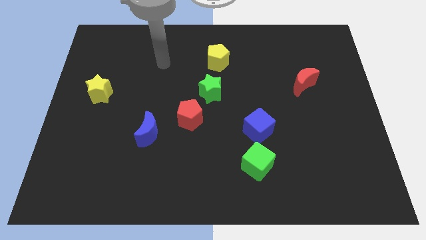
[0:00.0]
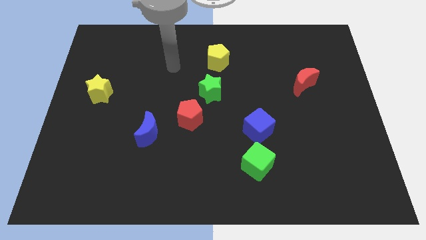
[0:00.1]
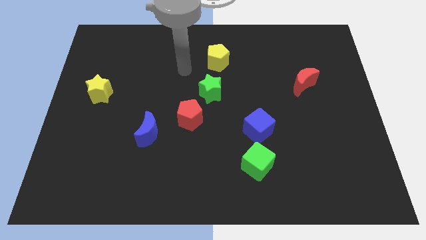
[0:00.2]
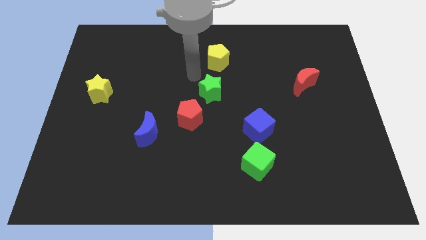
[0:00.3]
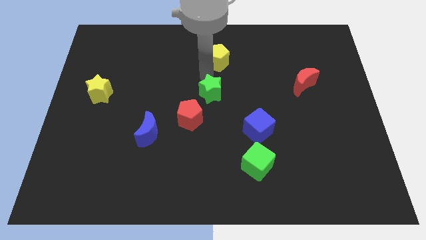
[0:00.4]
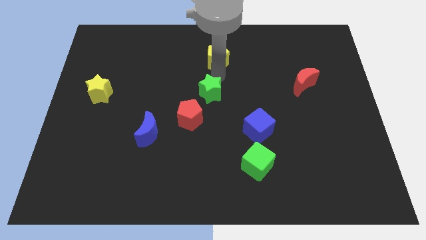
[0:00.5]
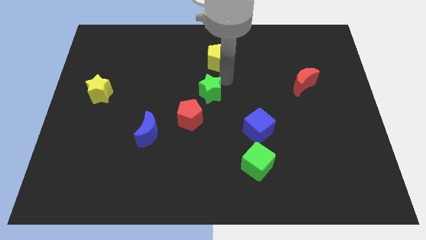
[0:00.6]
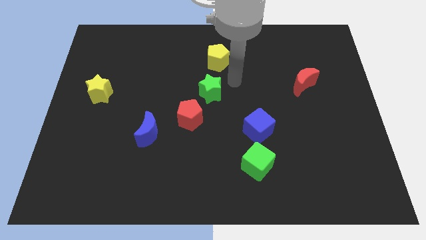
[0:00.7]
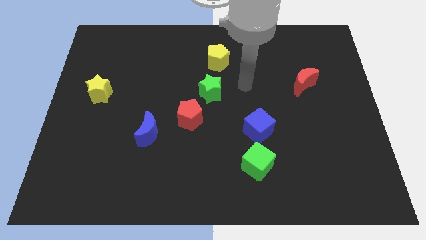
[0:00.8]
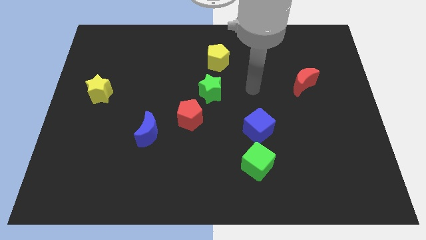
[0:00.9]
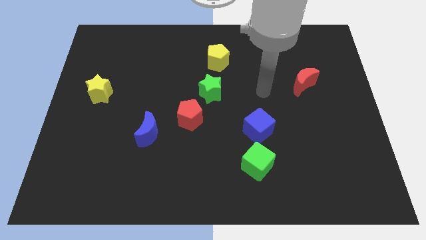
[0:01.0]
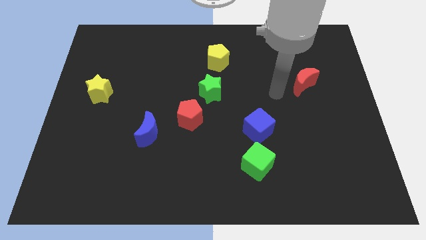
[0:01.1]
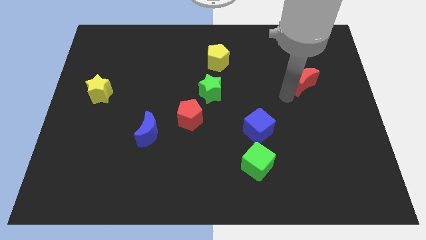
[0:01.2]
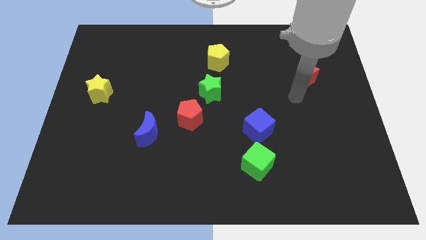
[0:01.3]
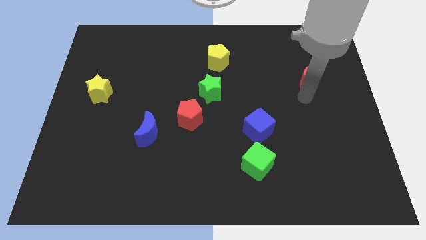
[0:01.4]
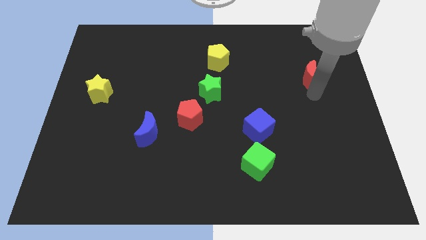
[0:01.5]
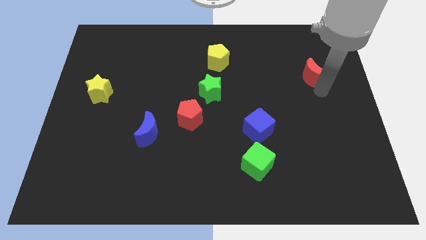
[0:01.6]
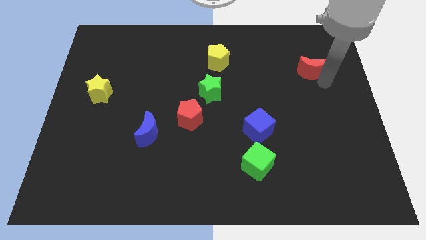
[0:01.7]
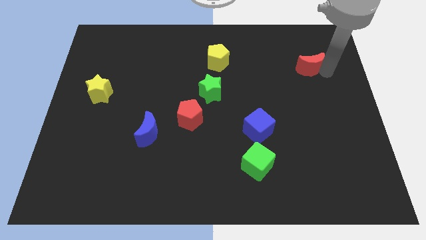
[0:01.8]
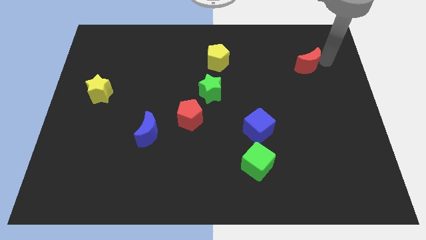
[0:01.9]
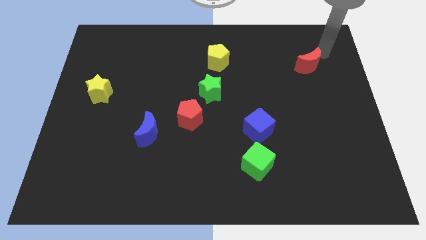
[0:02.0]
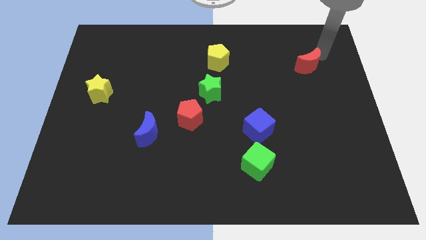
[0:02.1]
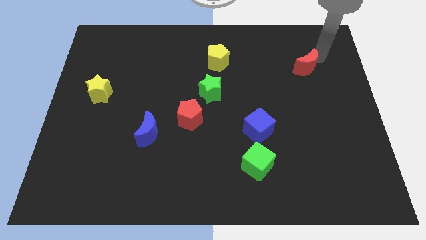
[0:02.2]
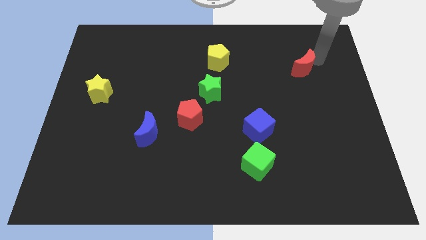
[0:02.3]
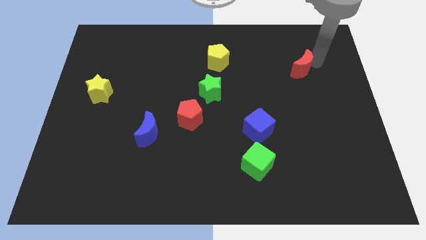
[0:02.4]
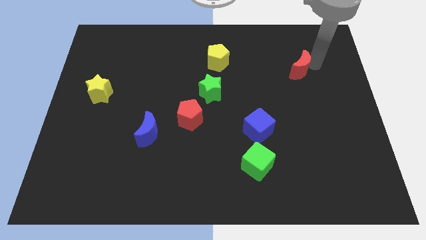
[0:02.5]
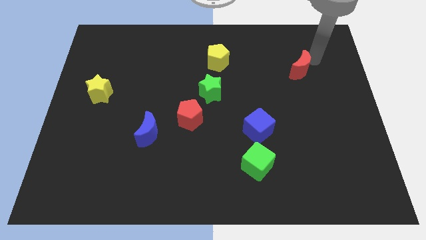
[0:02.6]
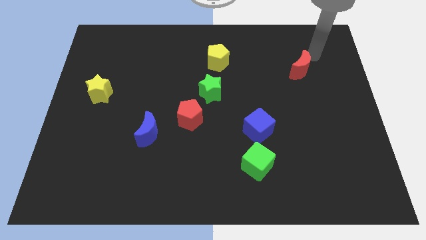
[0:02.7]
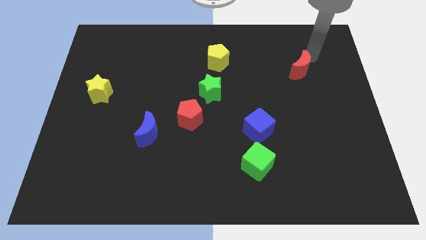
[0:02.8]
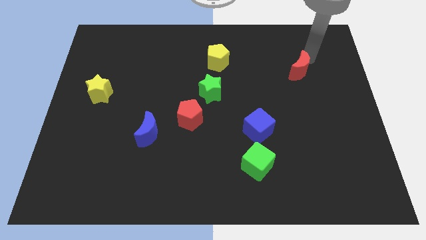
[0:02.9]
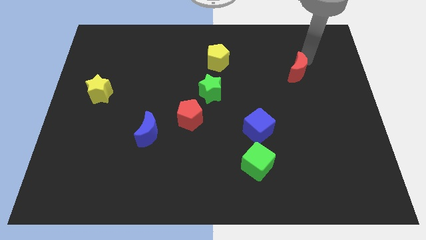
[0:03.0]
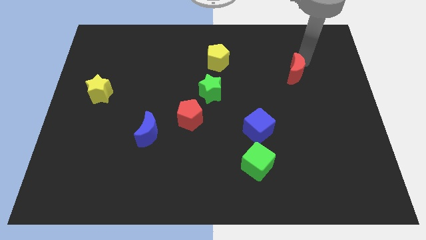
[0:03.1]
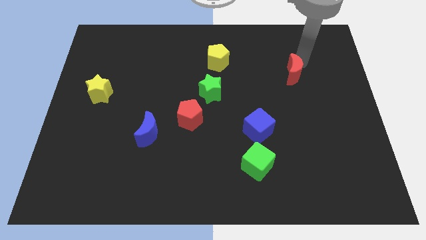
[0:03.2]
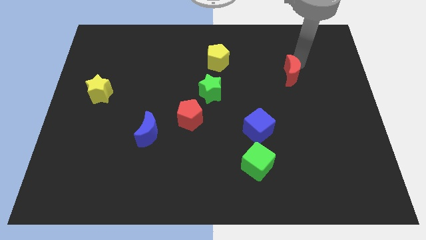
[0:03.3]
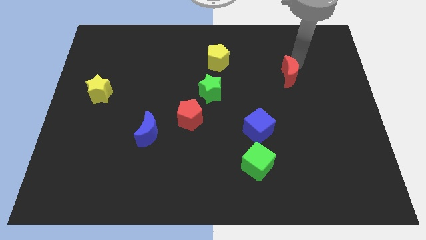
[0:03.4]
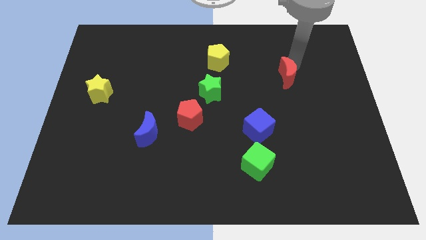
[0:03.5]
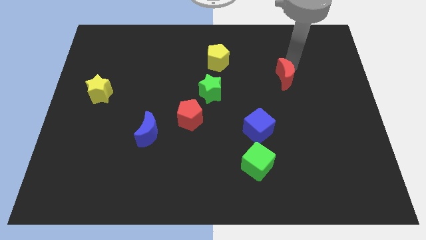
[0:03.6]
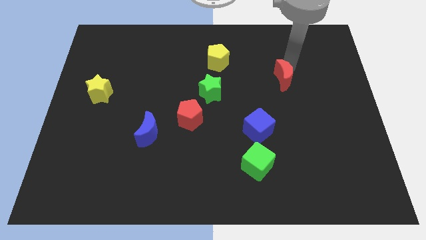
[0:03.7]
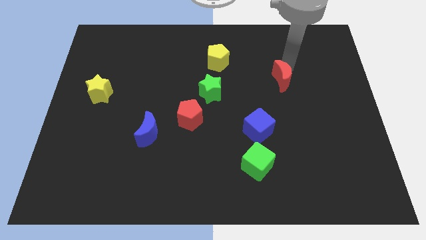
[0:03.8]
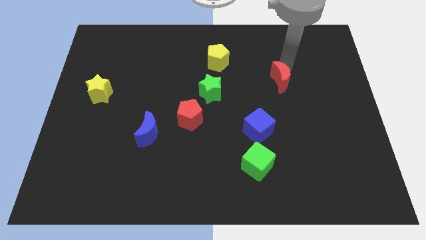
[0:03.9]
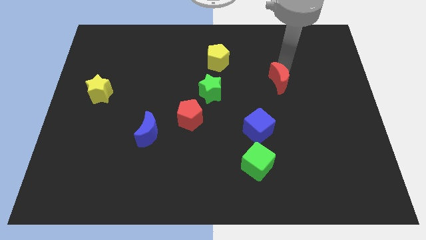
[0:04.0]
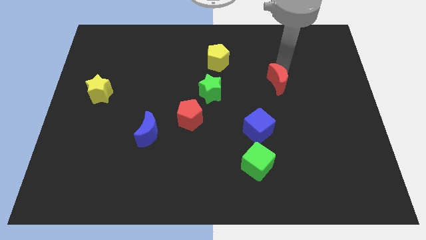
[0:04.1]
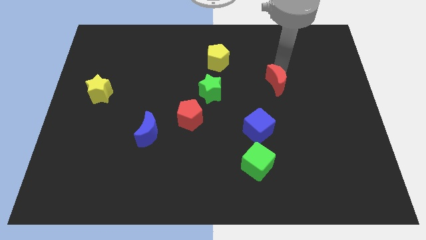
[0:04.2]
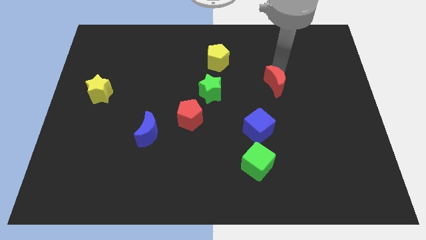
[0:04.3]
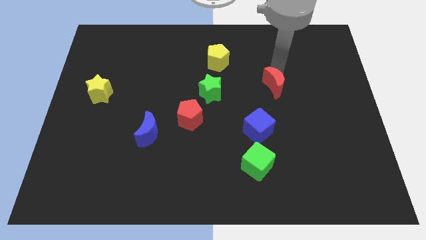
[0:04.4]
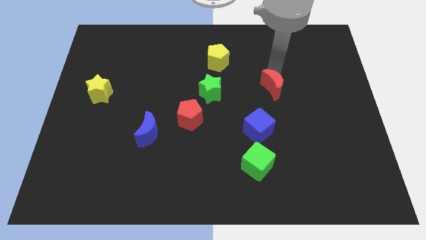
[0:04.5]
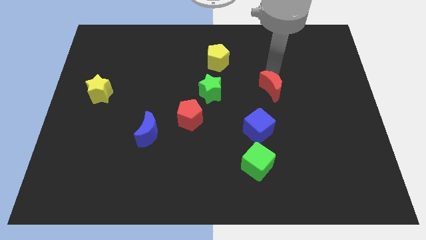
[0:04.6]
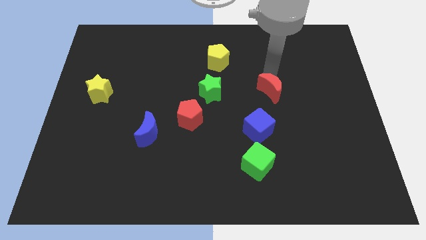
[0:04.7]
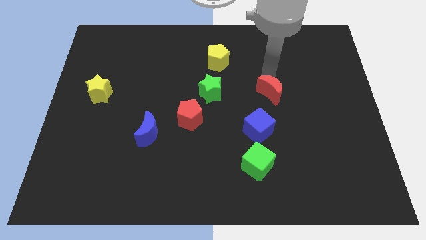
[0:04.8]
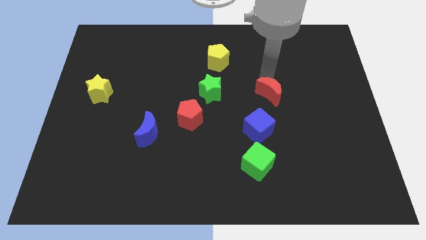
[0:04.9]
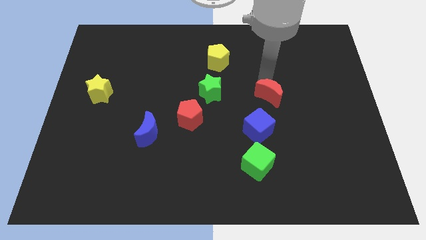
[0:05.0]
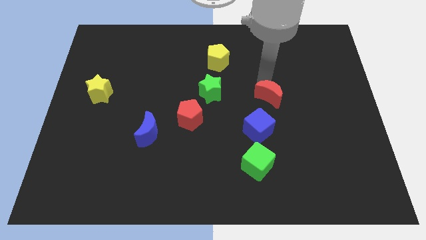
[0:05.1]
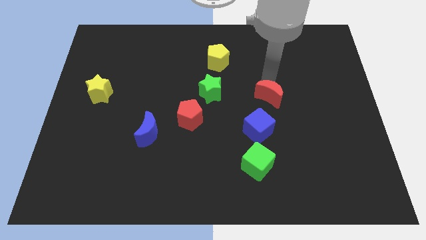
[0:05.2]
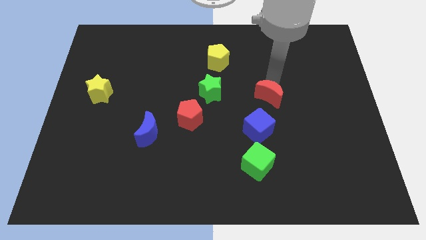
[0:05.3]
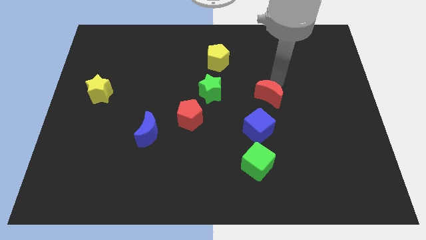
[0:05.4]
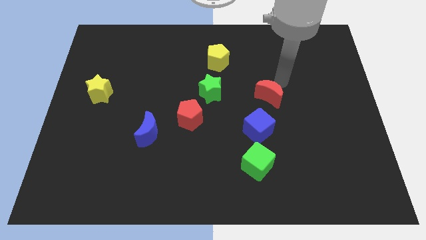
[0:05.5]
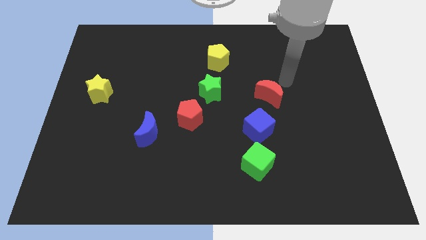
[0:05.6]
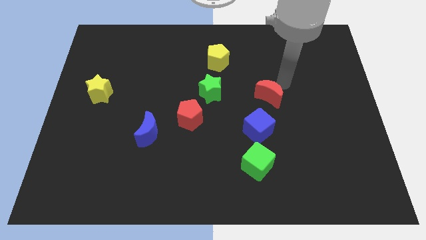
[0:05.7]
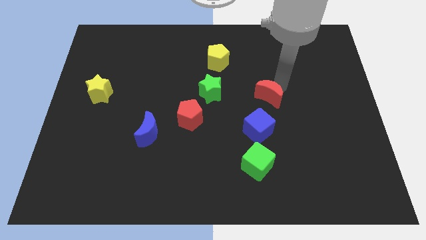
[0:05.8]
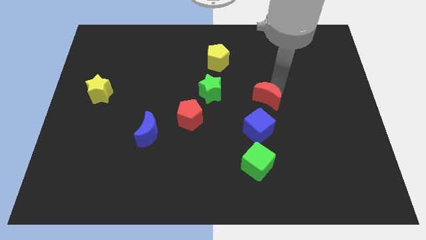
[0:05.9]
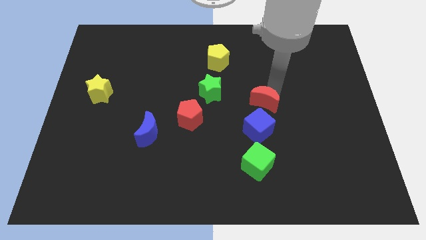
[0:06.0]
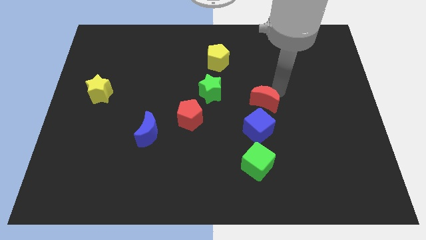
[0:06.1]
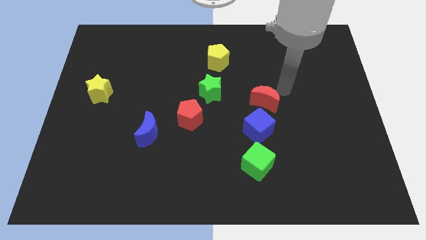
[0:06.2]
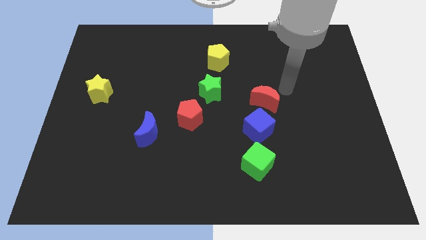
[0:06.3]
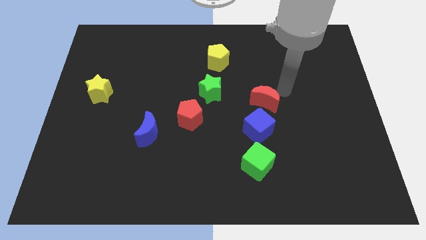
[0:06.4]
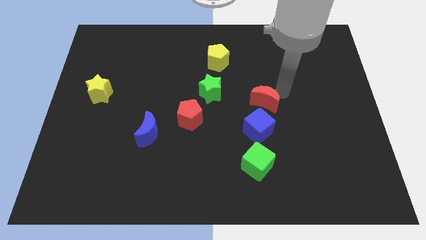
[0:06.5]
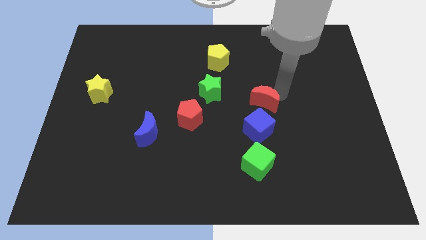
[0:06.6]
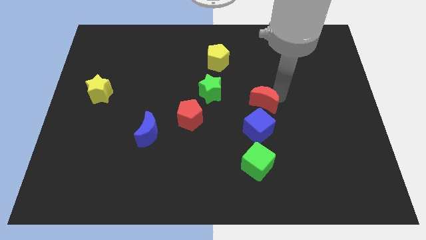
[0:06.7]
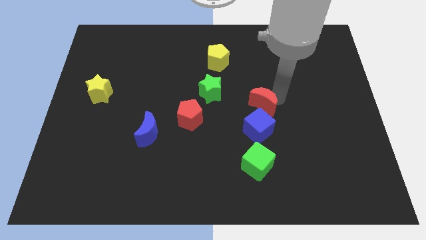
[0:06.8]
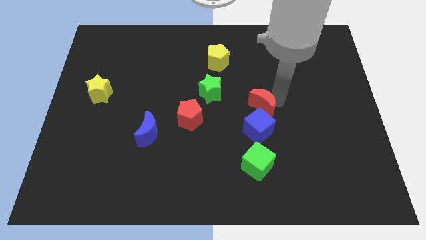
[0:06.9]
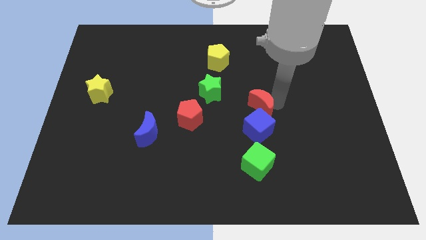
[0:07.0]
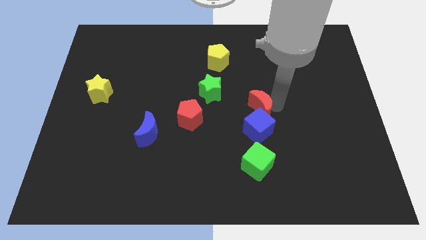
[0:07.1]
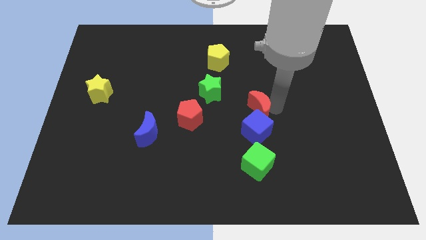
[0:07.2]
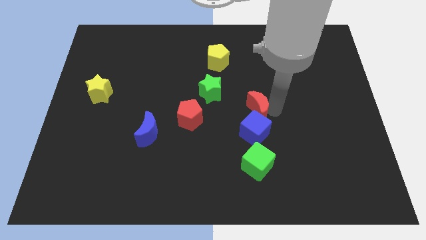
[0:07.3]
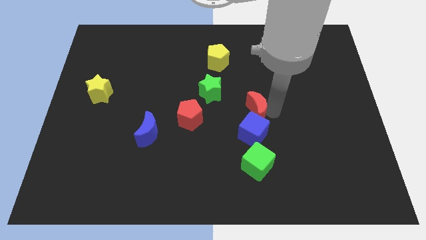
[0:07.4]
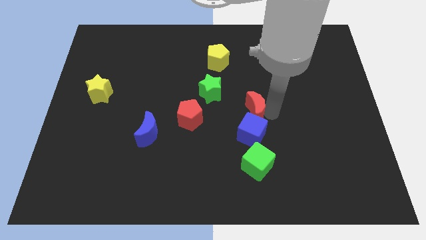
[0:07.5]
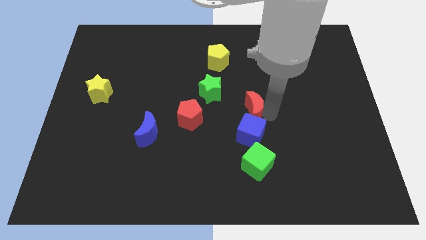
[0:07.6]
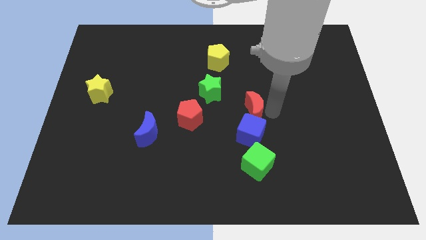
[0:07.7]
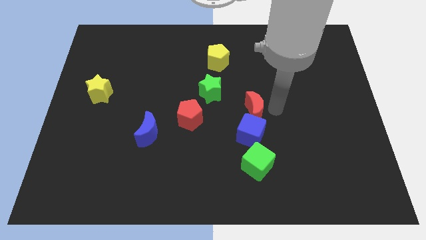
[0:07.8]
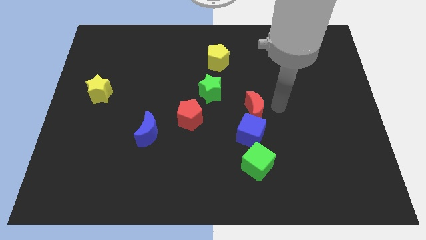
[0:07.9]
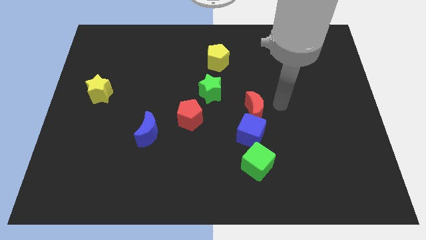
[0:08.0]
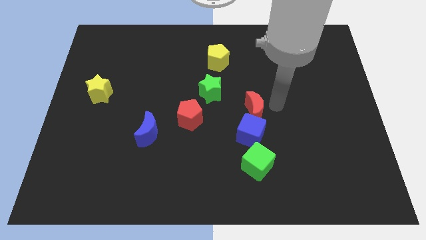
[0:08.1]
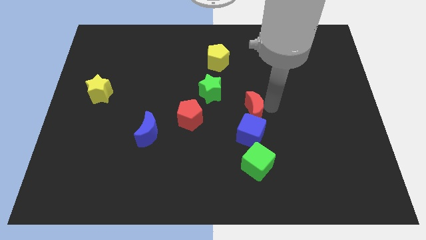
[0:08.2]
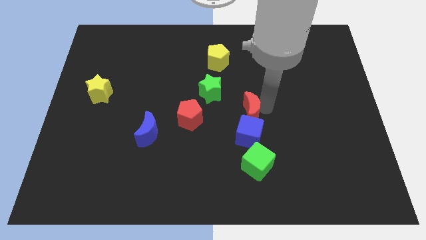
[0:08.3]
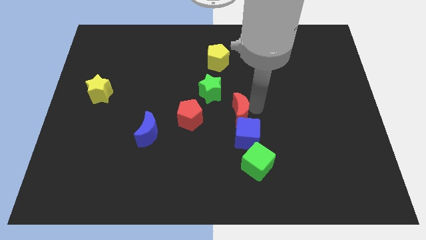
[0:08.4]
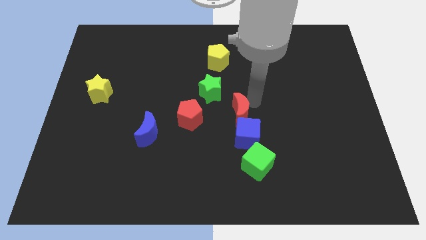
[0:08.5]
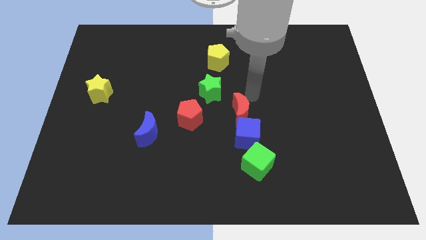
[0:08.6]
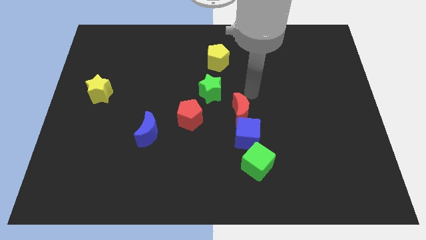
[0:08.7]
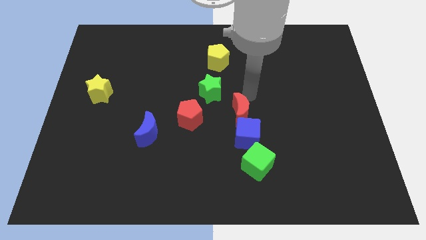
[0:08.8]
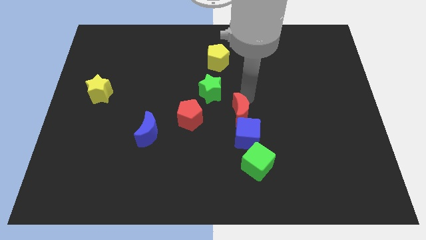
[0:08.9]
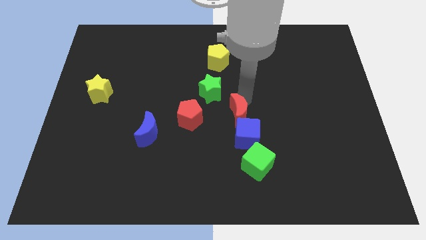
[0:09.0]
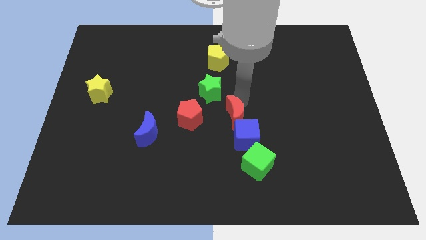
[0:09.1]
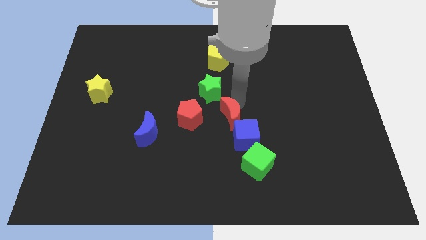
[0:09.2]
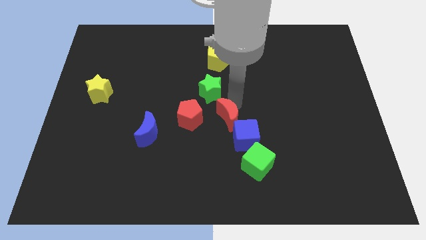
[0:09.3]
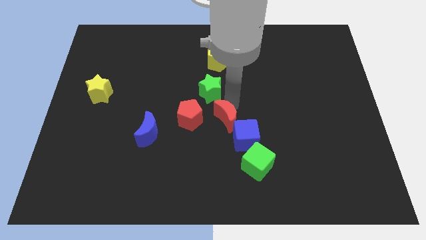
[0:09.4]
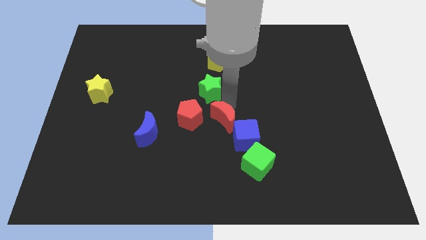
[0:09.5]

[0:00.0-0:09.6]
slide the red moon down and then left
